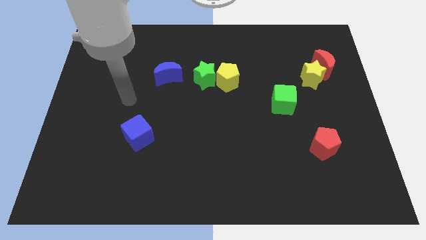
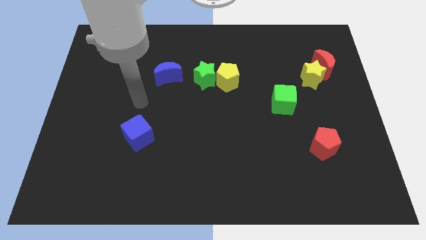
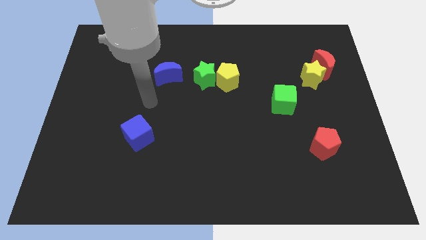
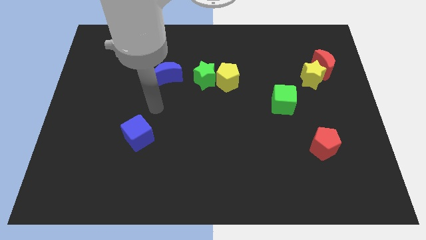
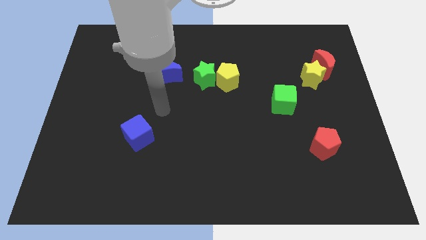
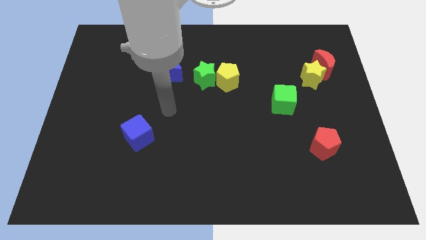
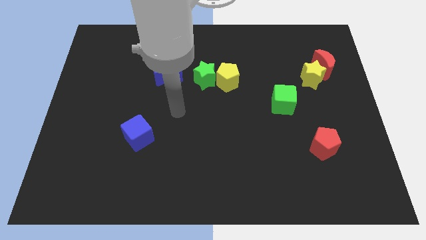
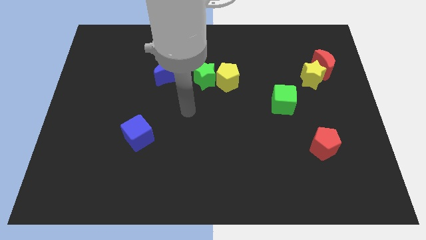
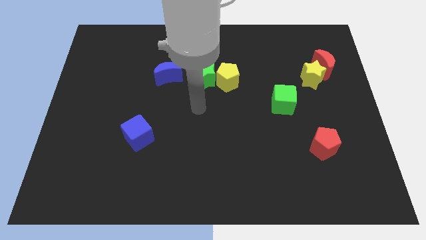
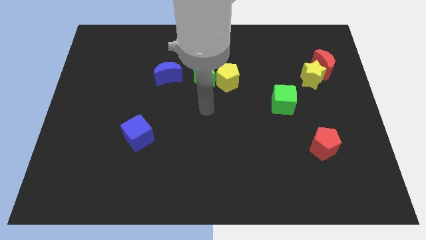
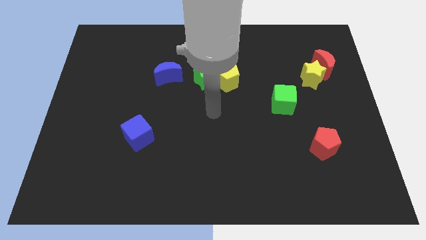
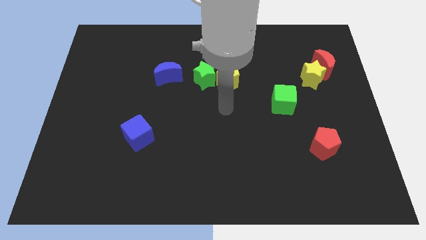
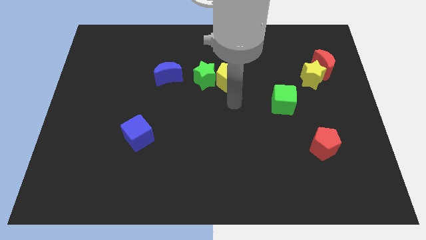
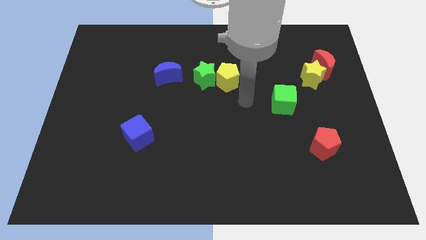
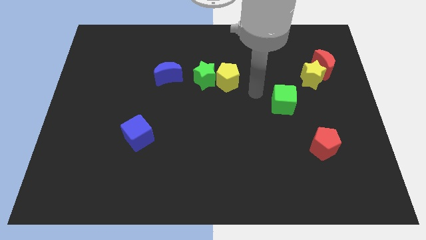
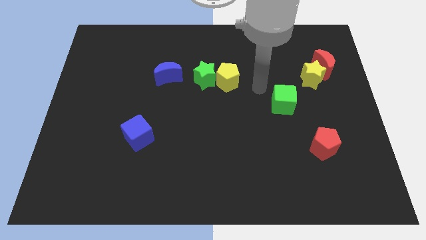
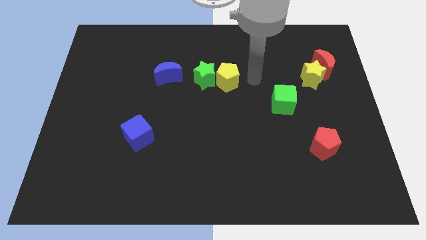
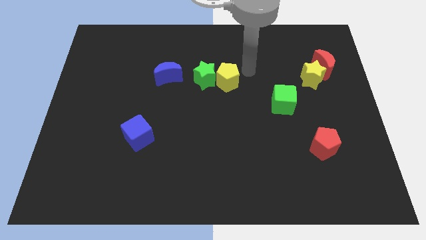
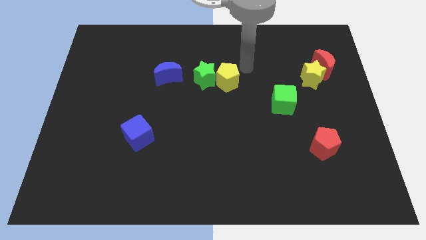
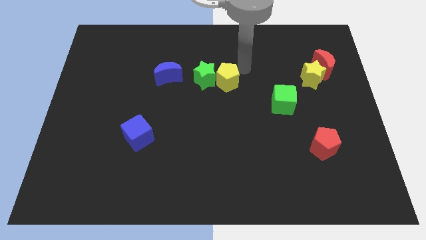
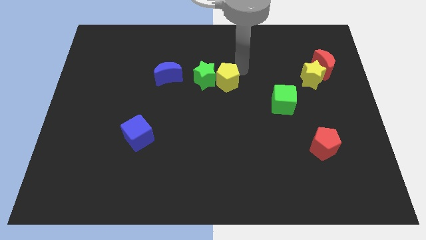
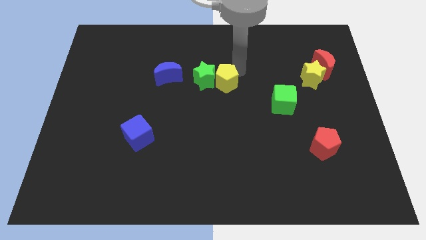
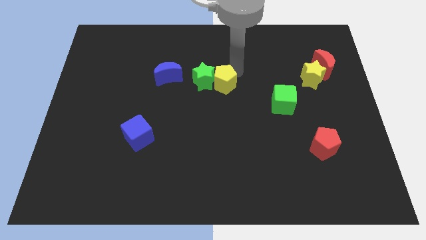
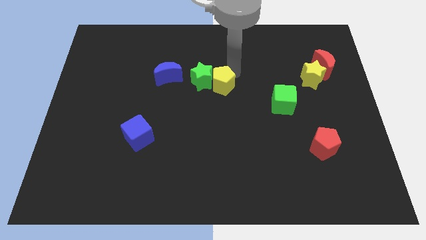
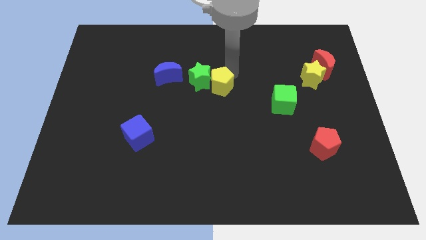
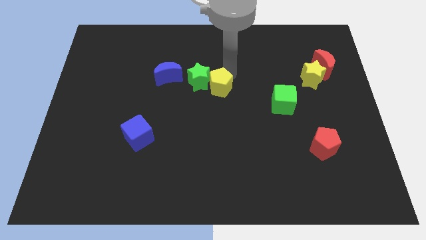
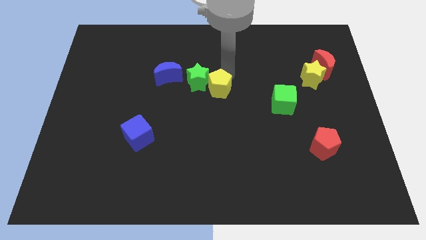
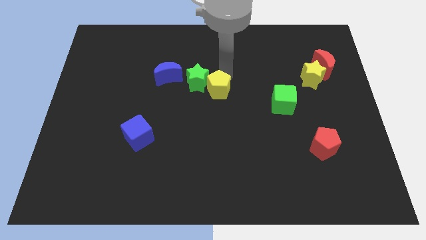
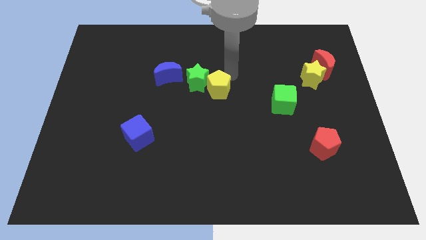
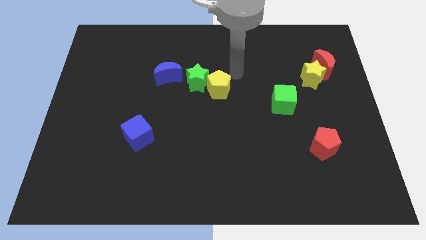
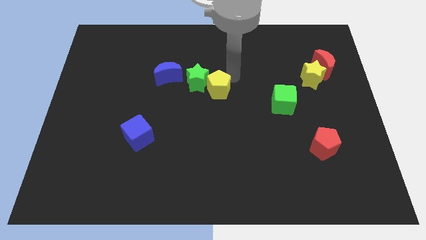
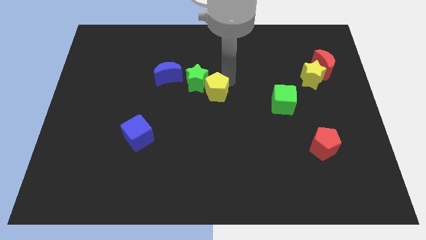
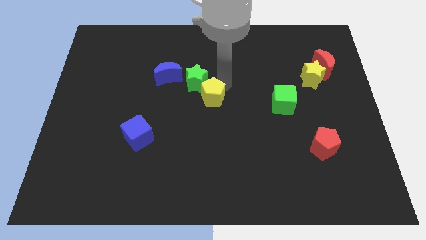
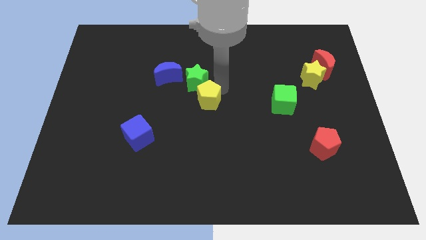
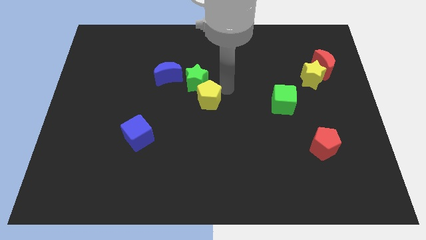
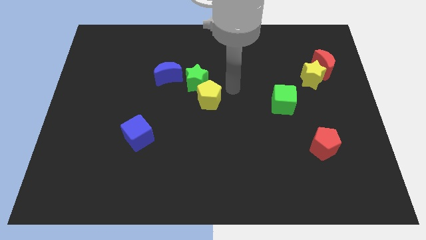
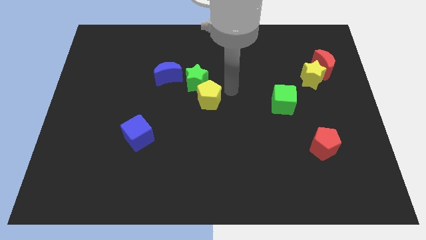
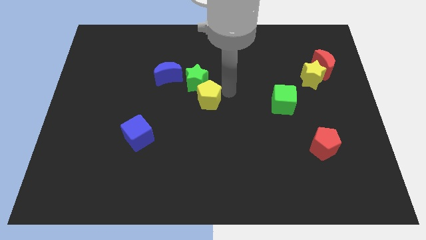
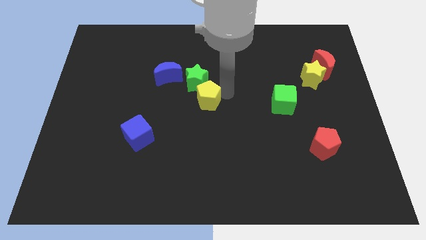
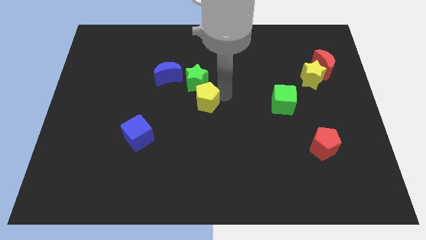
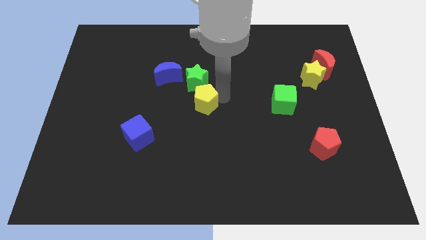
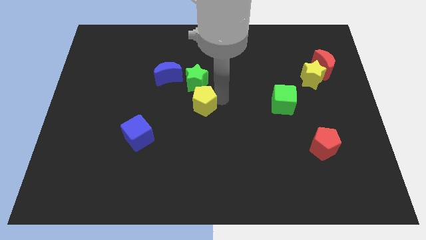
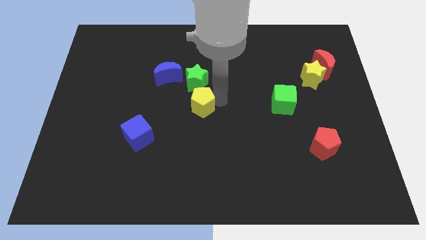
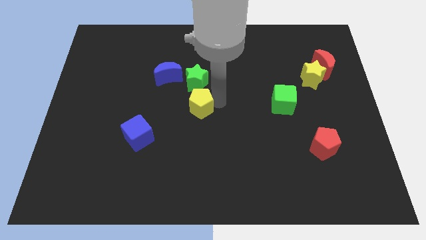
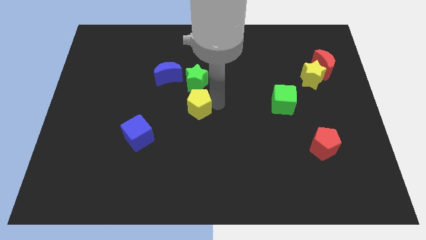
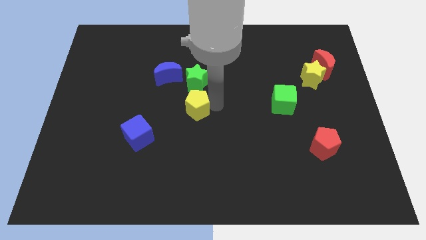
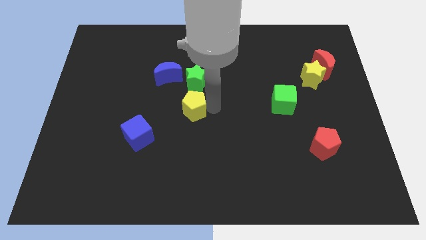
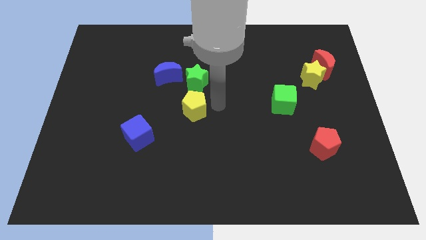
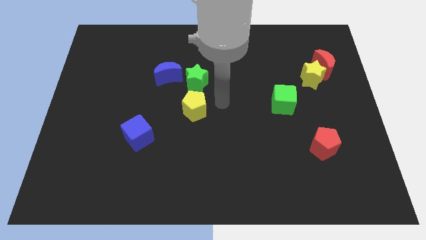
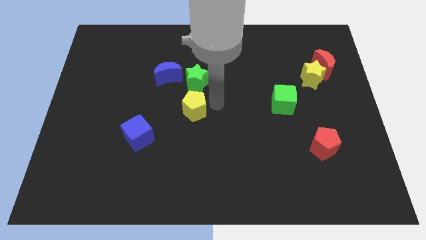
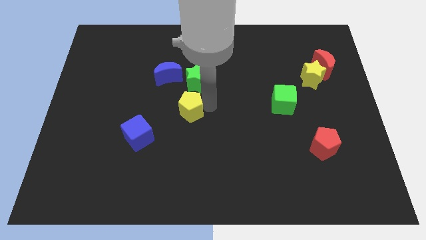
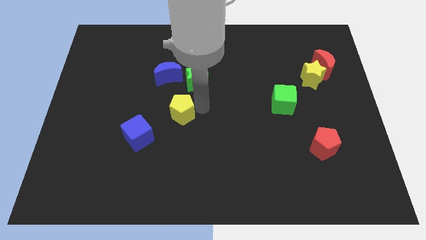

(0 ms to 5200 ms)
move the yellow pentagon diagonally up and to the right of the blue cube

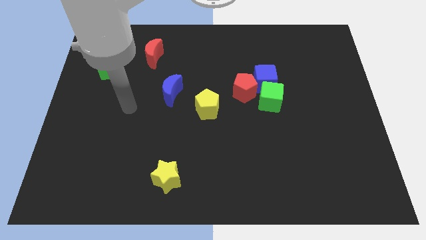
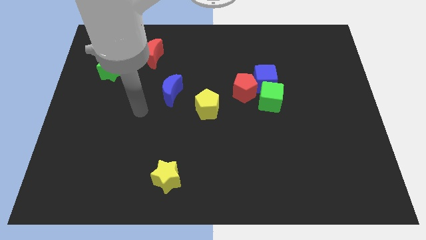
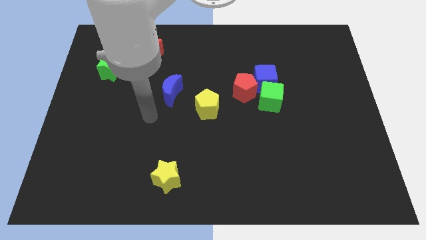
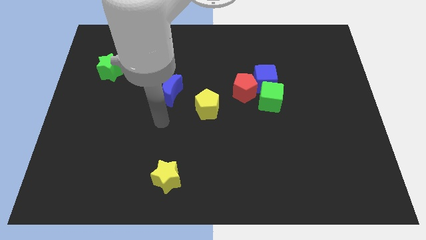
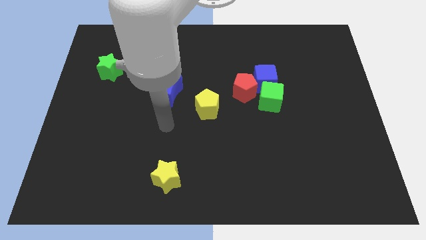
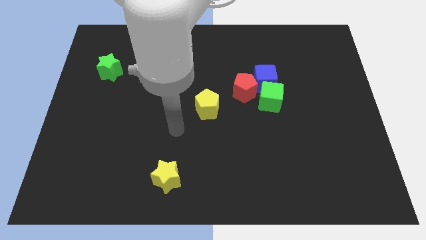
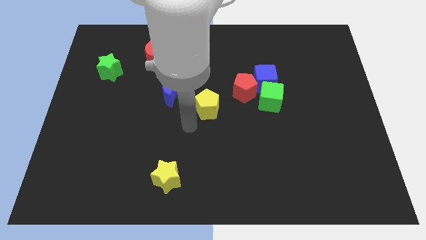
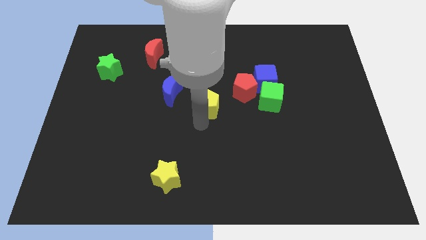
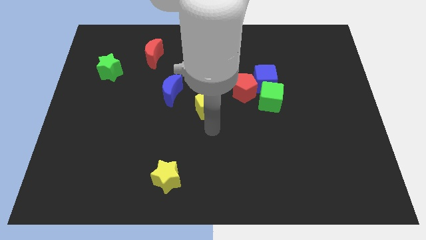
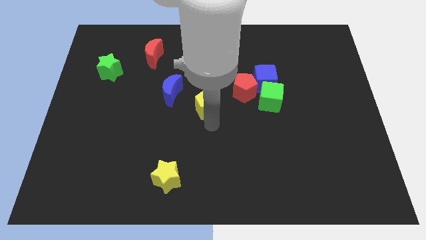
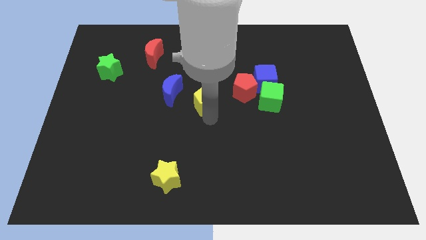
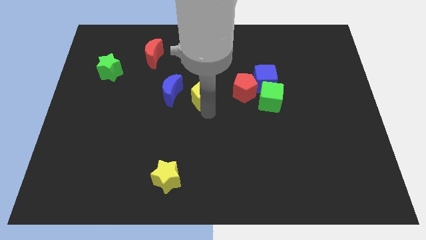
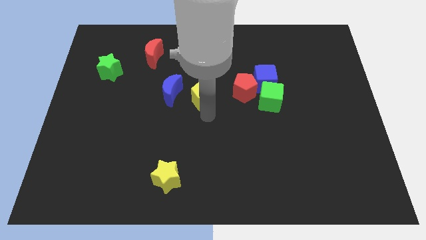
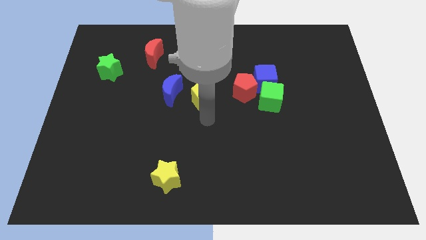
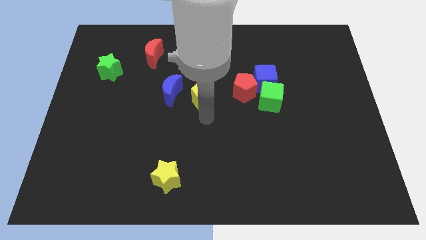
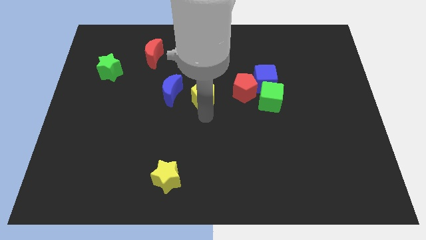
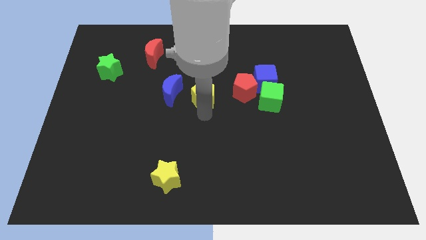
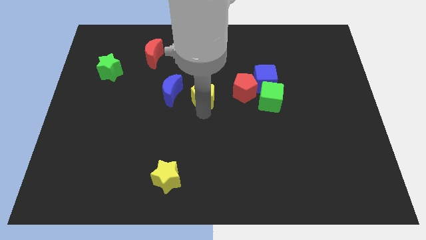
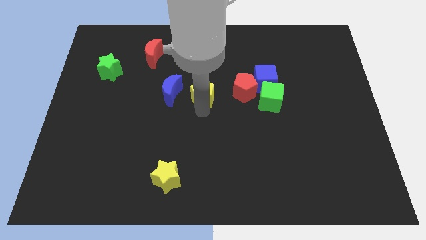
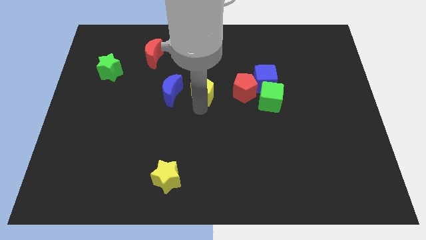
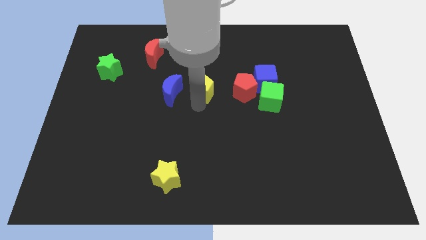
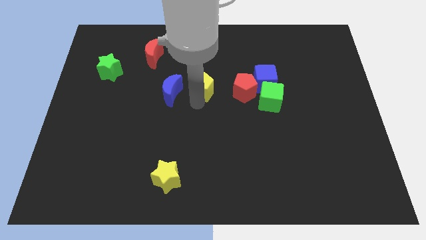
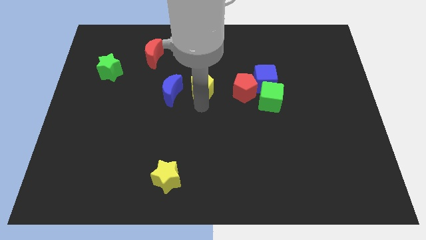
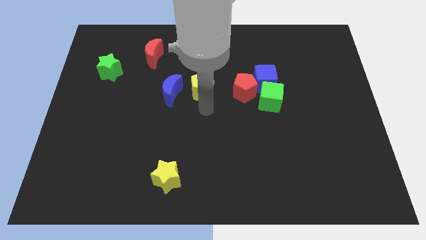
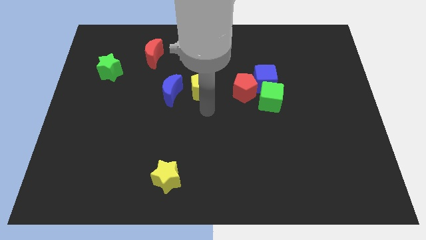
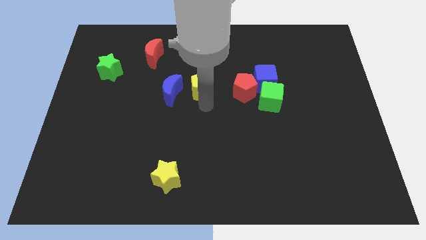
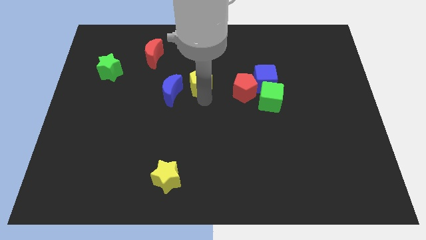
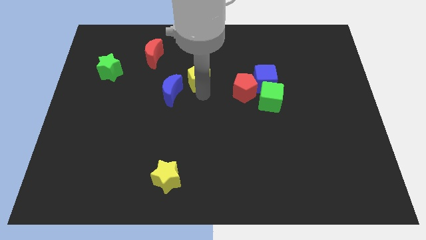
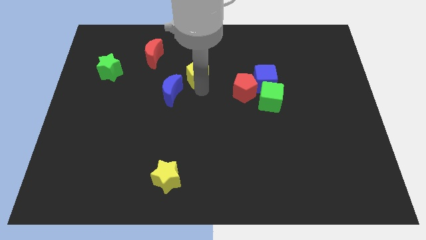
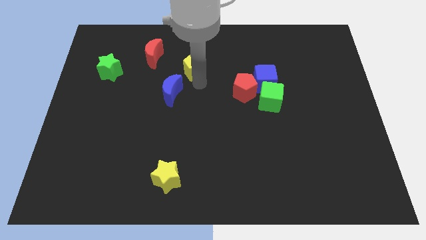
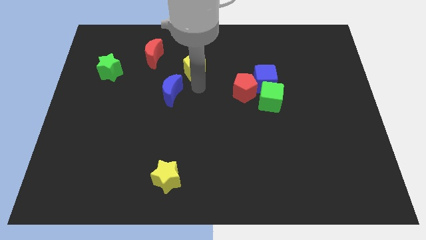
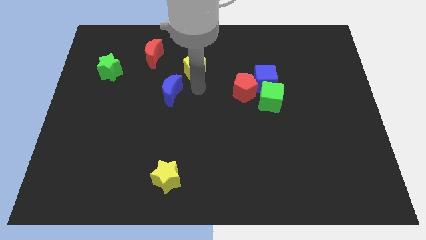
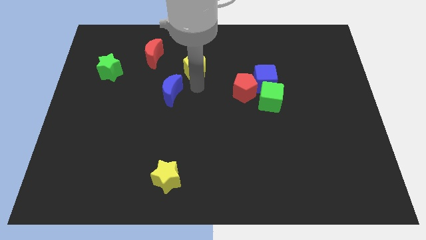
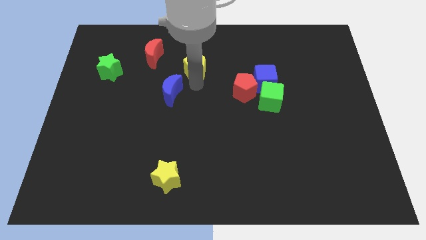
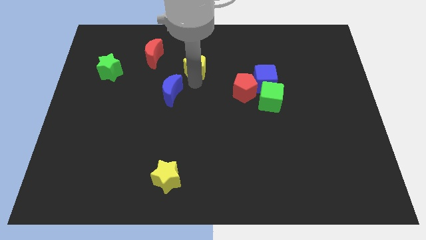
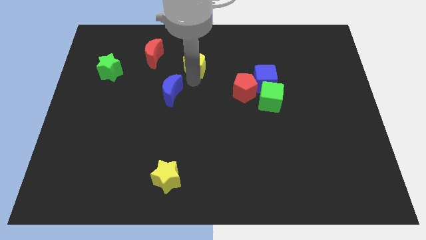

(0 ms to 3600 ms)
put the yellow pentagon just right of the red moon
